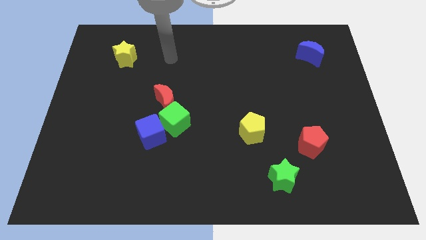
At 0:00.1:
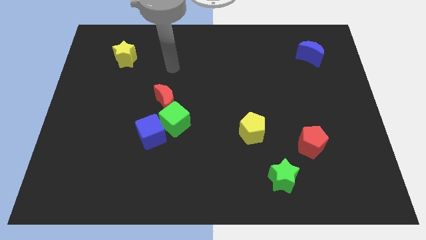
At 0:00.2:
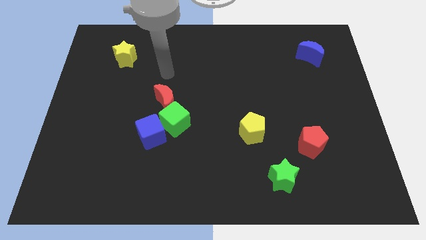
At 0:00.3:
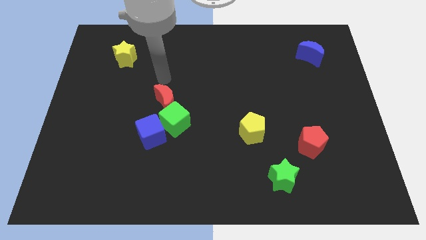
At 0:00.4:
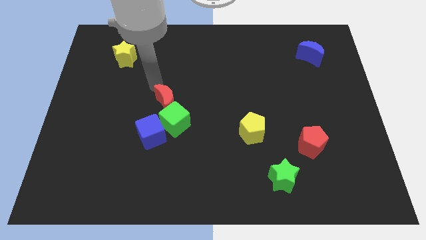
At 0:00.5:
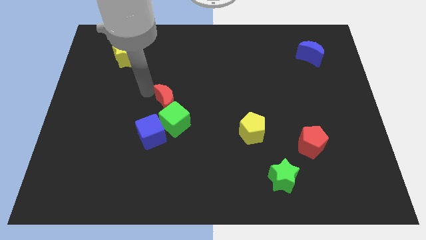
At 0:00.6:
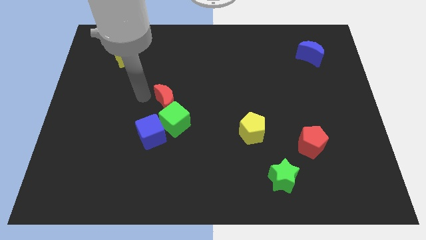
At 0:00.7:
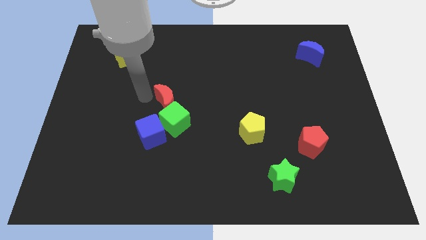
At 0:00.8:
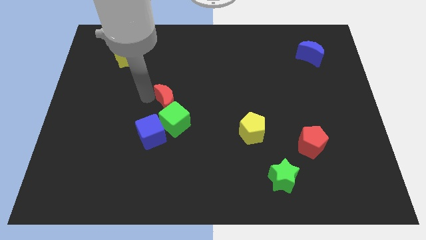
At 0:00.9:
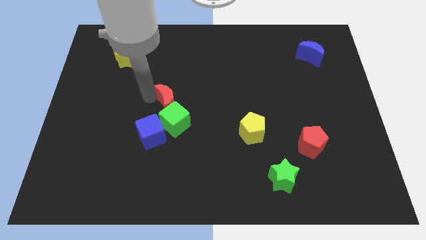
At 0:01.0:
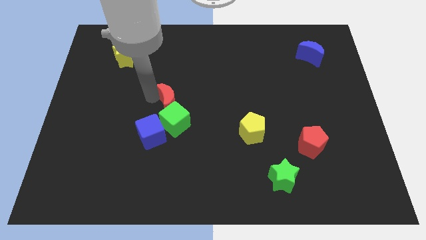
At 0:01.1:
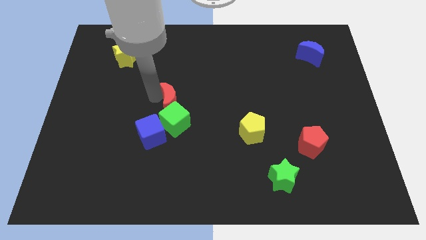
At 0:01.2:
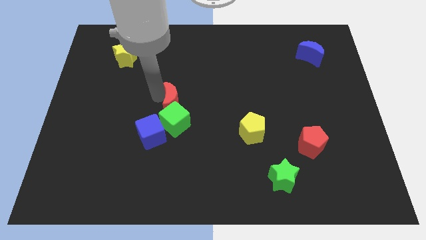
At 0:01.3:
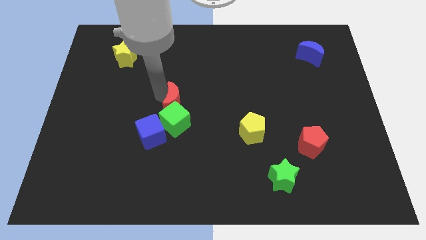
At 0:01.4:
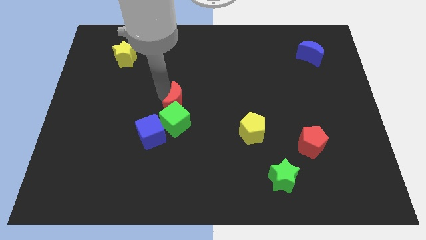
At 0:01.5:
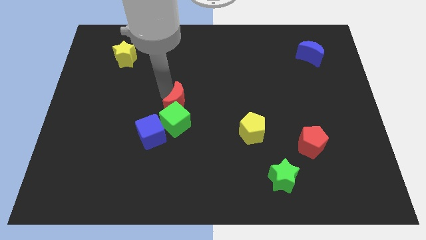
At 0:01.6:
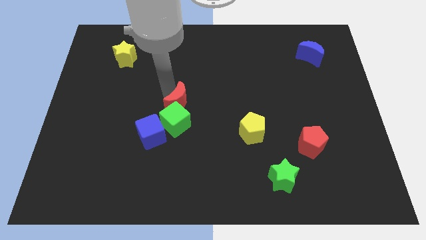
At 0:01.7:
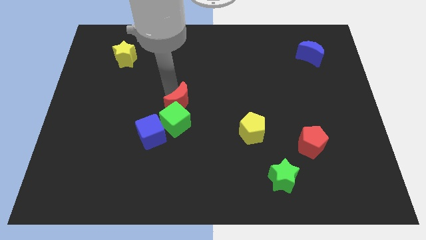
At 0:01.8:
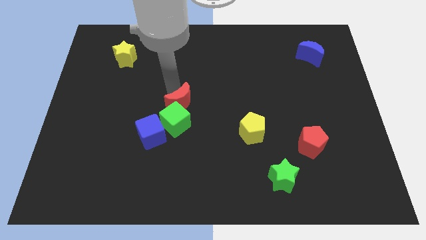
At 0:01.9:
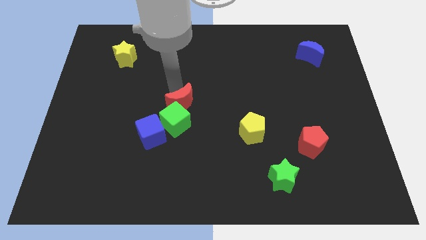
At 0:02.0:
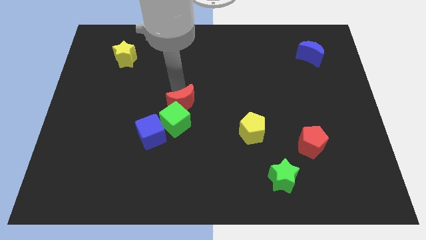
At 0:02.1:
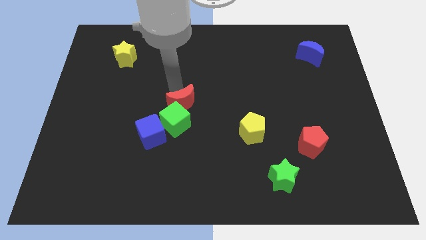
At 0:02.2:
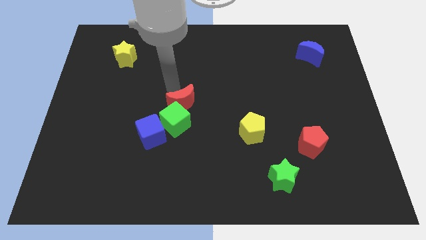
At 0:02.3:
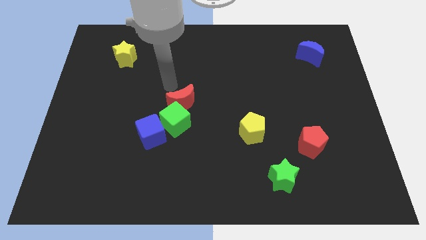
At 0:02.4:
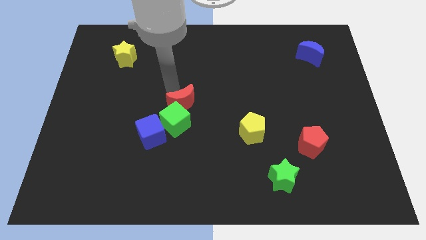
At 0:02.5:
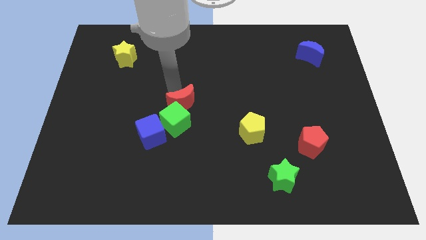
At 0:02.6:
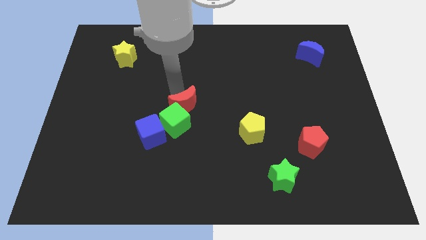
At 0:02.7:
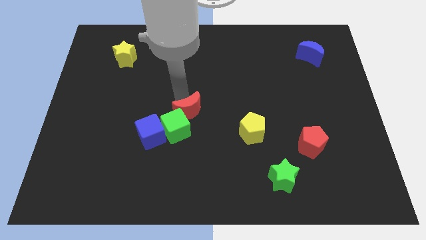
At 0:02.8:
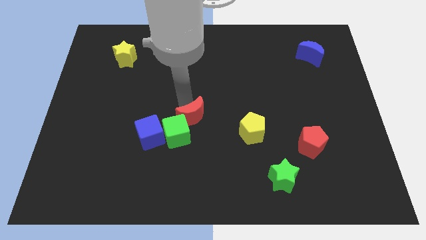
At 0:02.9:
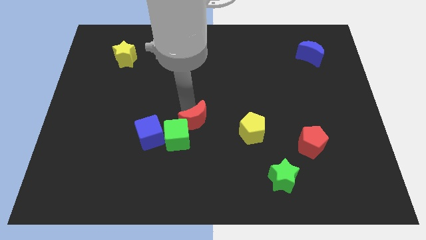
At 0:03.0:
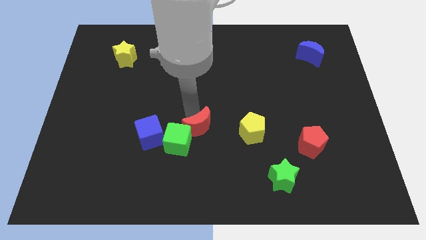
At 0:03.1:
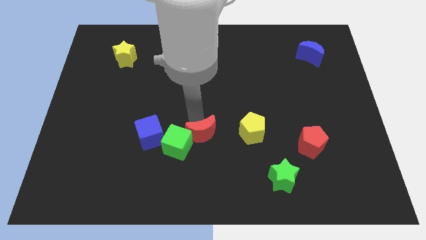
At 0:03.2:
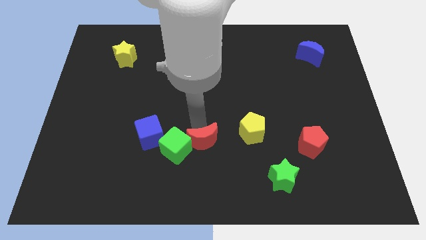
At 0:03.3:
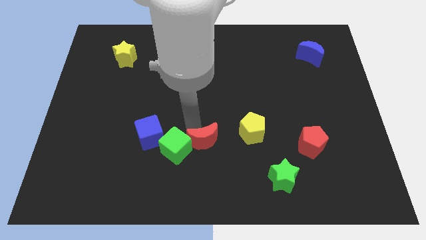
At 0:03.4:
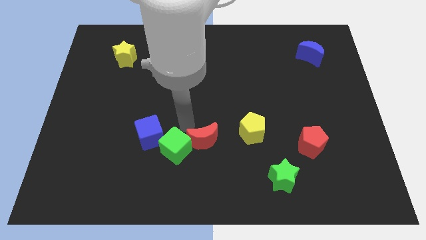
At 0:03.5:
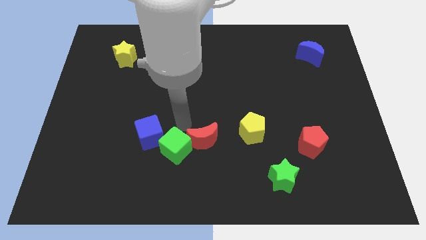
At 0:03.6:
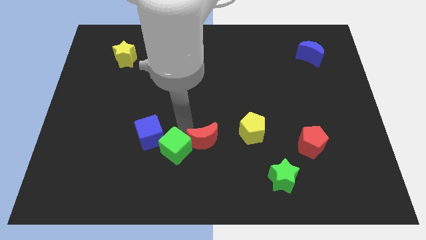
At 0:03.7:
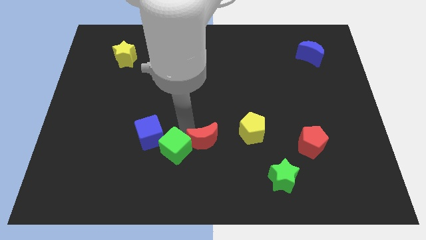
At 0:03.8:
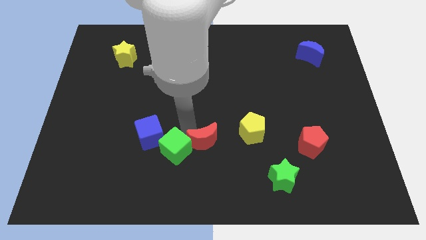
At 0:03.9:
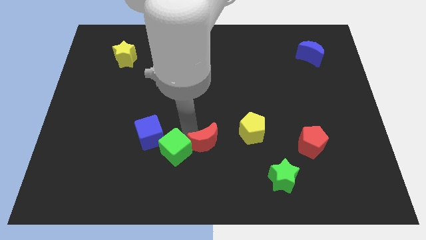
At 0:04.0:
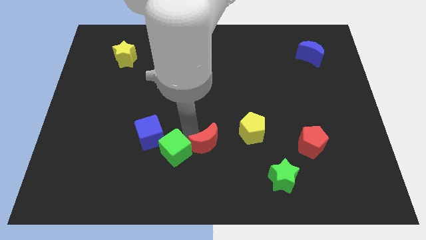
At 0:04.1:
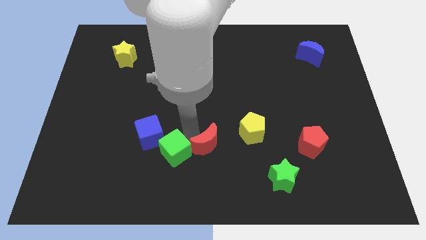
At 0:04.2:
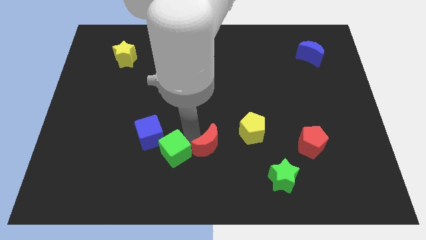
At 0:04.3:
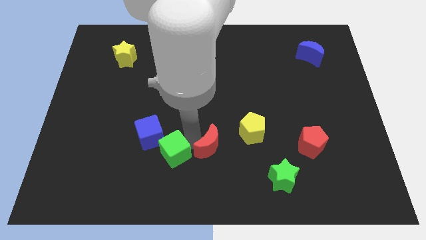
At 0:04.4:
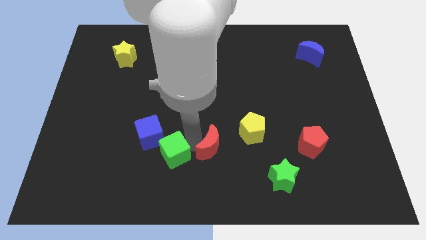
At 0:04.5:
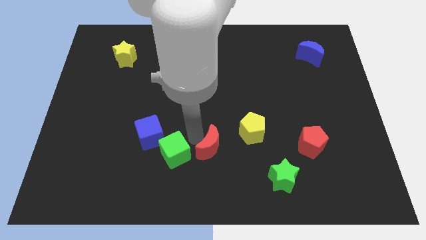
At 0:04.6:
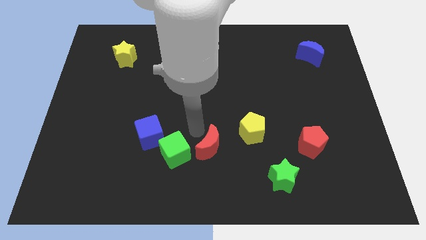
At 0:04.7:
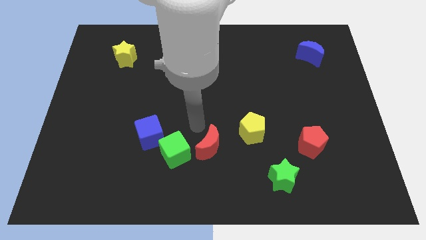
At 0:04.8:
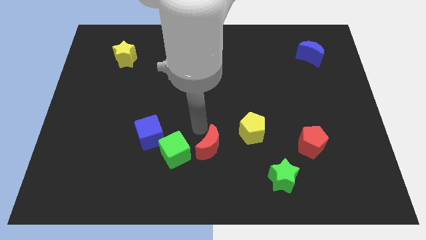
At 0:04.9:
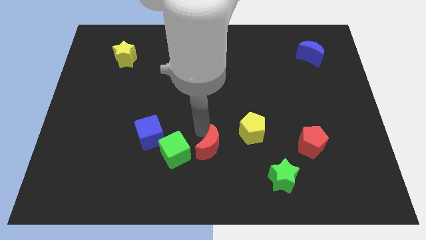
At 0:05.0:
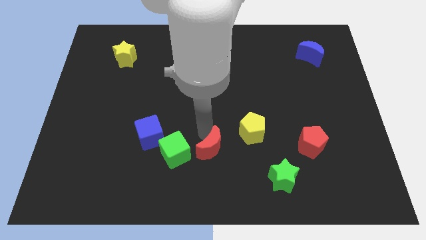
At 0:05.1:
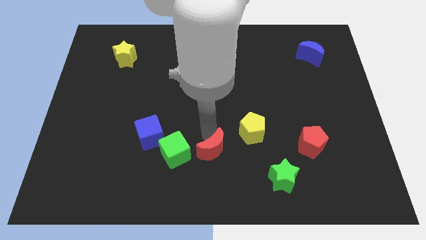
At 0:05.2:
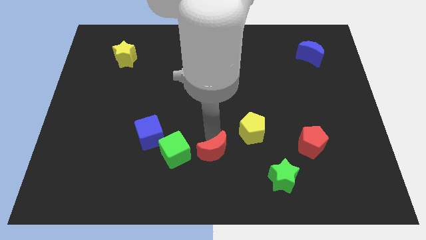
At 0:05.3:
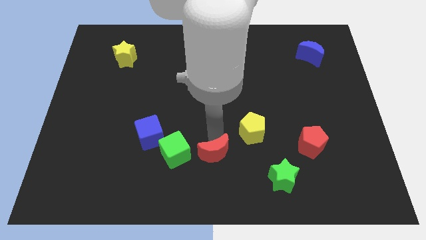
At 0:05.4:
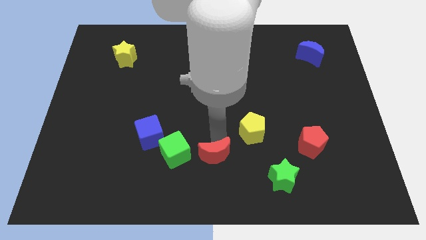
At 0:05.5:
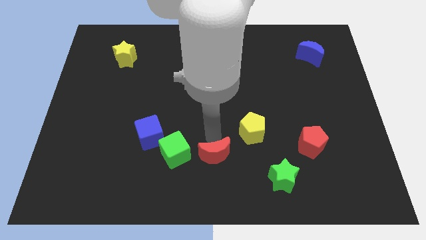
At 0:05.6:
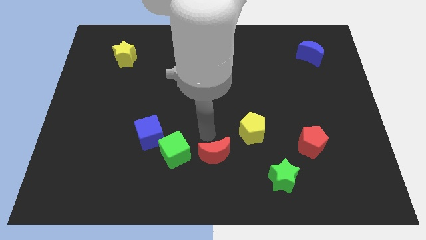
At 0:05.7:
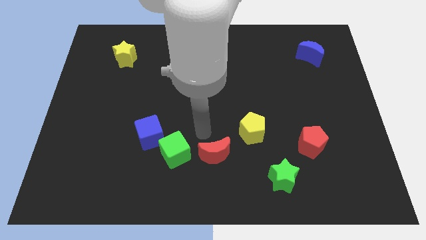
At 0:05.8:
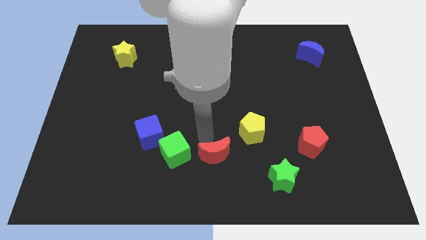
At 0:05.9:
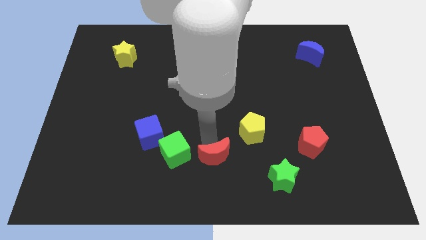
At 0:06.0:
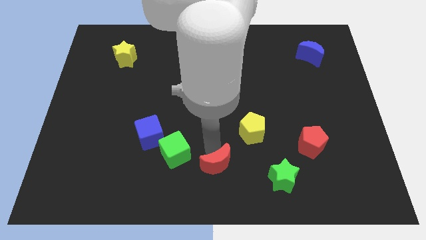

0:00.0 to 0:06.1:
put the red moon left of the green star
